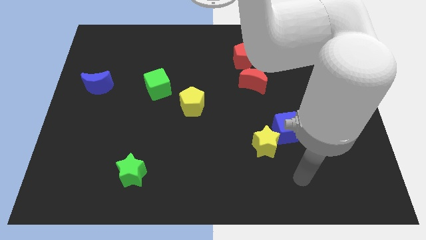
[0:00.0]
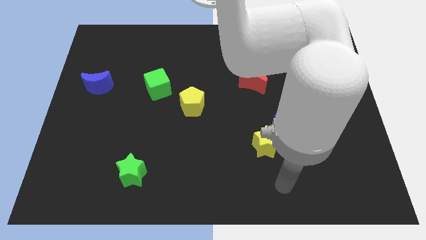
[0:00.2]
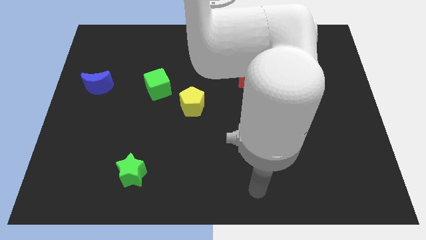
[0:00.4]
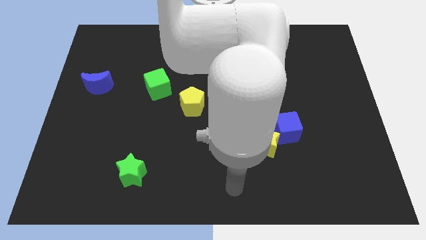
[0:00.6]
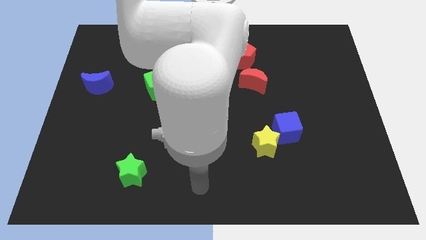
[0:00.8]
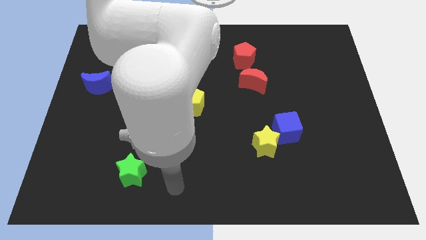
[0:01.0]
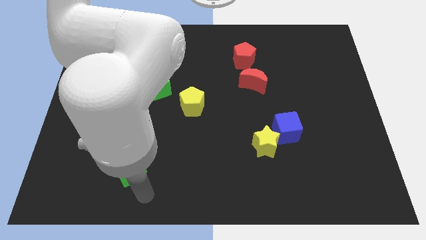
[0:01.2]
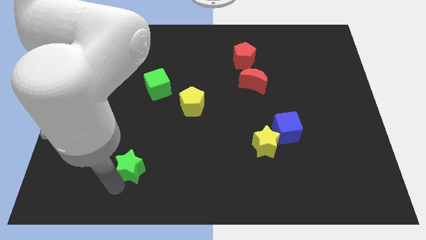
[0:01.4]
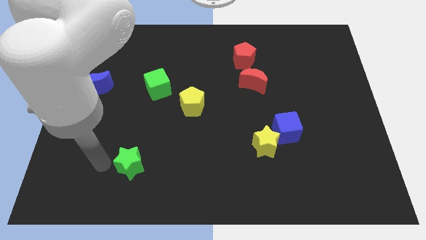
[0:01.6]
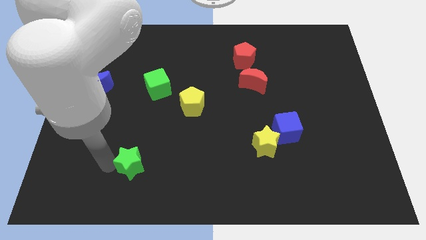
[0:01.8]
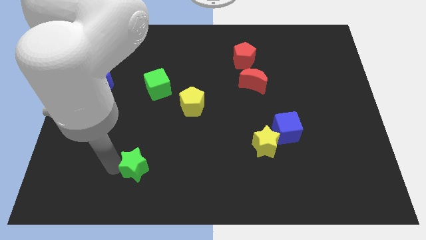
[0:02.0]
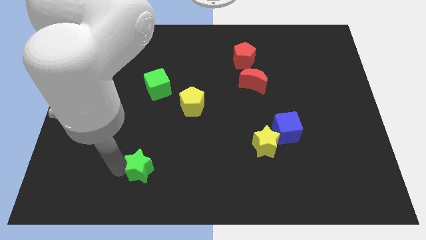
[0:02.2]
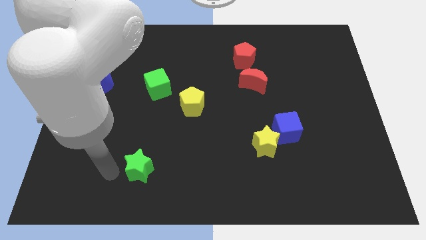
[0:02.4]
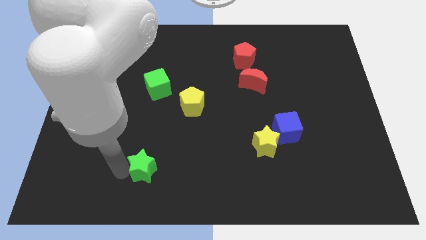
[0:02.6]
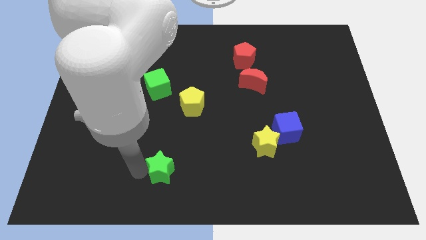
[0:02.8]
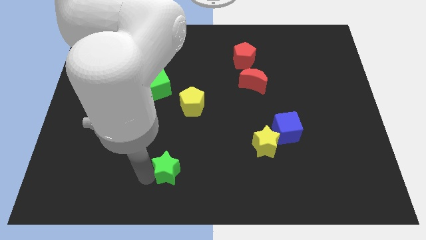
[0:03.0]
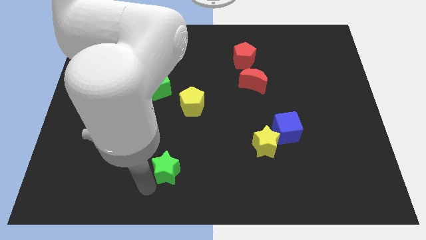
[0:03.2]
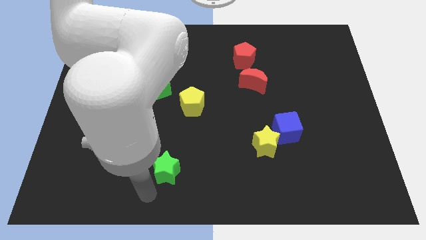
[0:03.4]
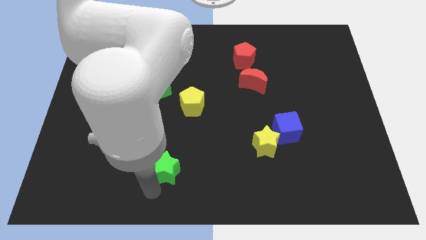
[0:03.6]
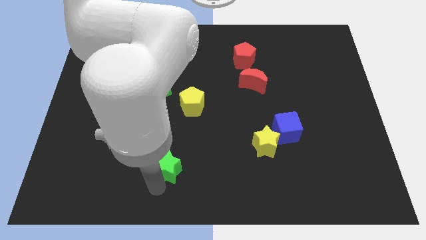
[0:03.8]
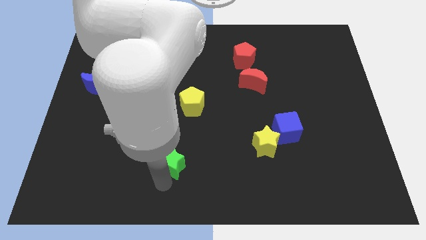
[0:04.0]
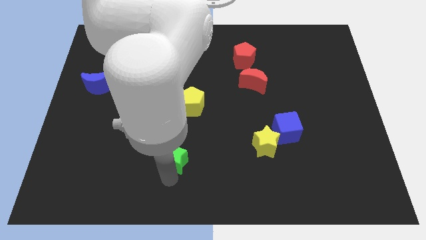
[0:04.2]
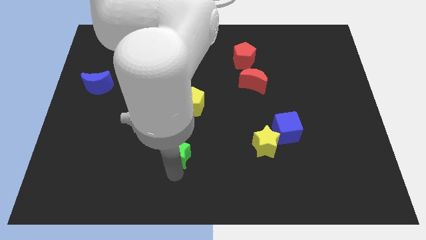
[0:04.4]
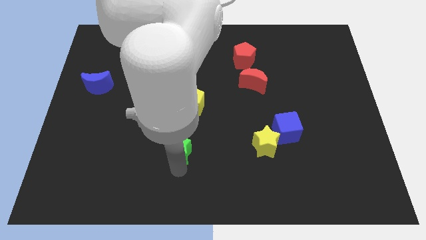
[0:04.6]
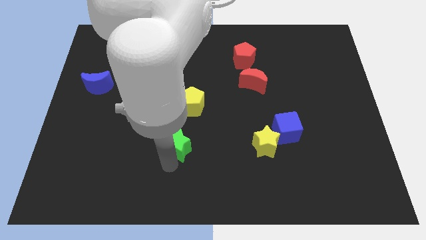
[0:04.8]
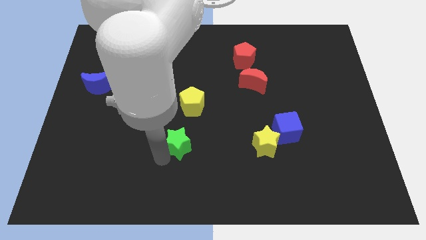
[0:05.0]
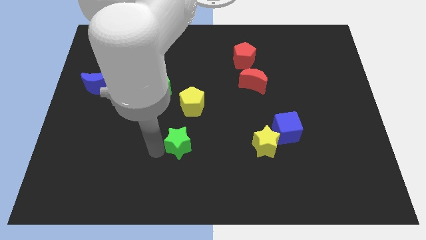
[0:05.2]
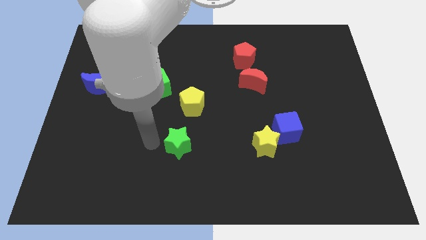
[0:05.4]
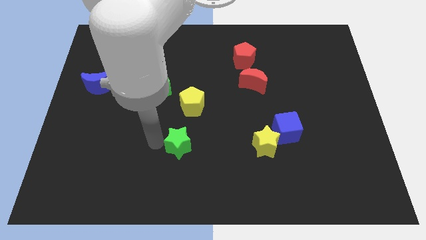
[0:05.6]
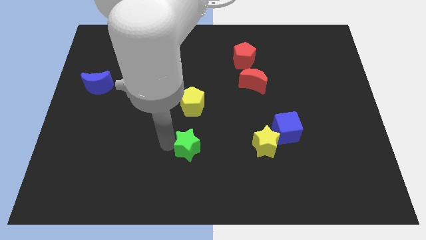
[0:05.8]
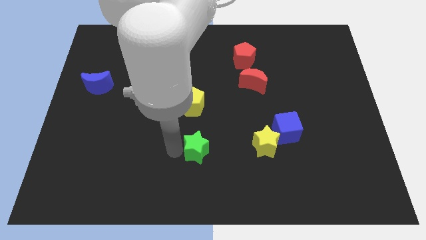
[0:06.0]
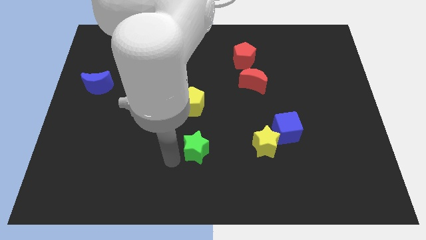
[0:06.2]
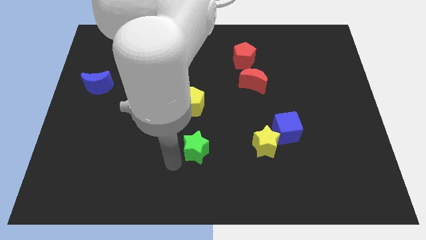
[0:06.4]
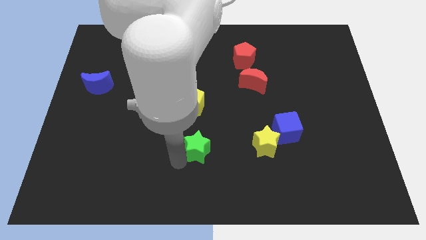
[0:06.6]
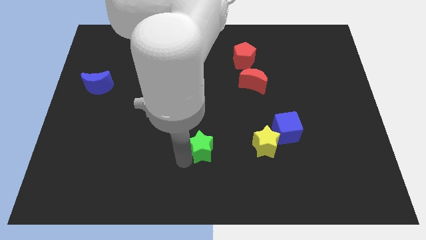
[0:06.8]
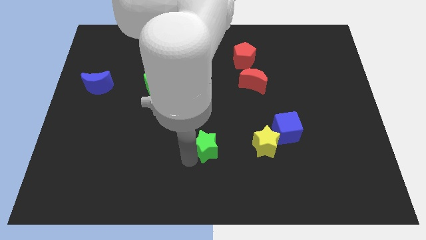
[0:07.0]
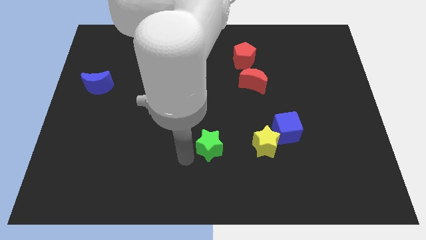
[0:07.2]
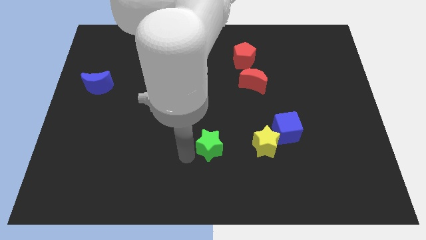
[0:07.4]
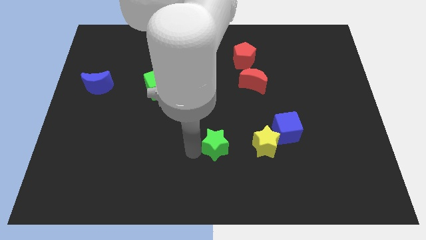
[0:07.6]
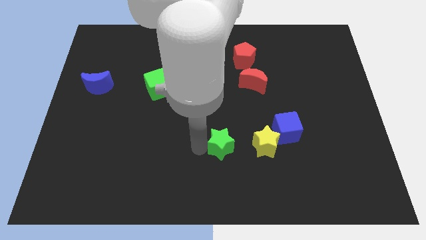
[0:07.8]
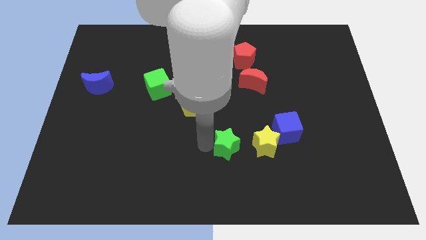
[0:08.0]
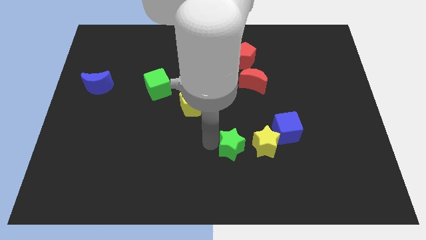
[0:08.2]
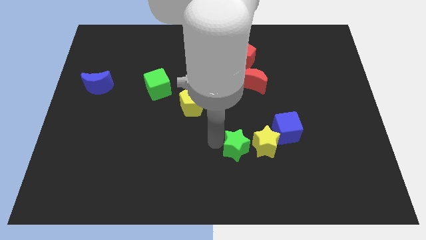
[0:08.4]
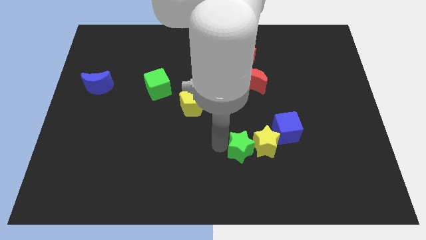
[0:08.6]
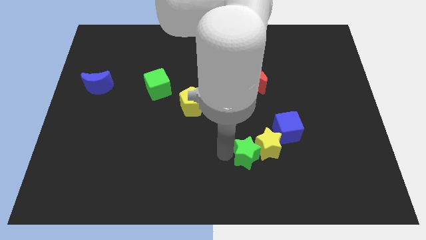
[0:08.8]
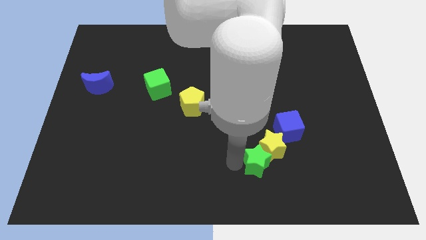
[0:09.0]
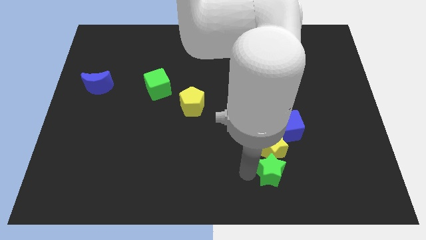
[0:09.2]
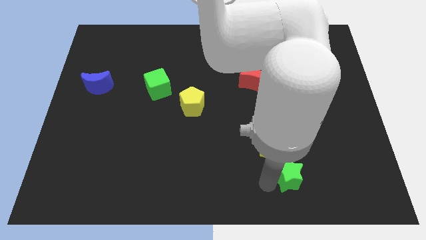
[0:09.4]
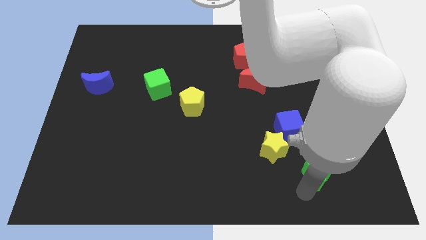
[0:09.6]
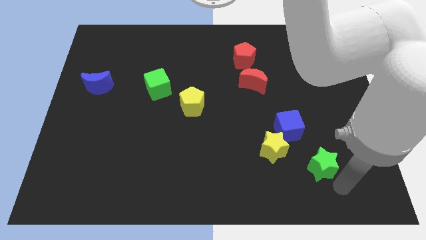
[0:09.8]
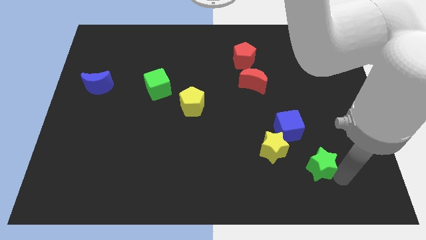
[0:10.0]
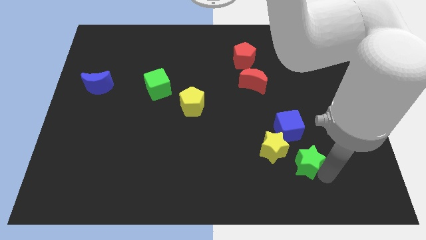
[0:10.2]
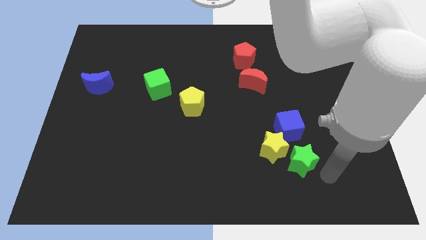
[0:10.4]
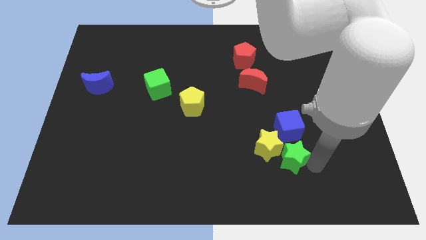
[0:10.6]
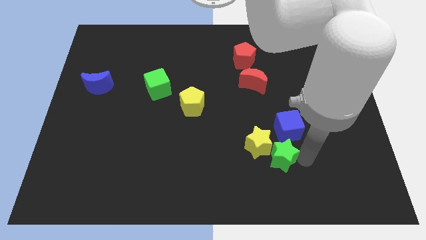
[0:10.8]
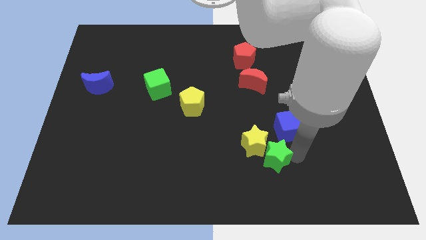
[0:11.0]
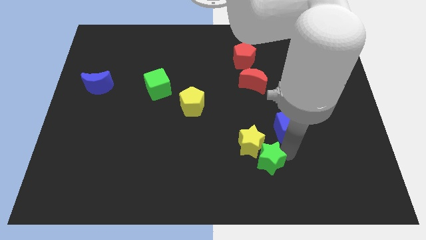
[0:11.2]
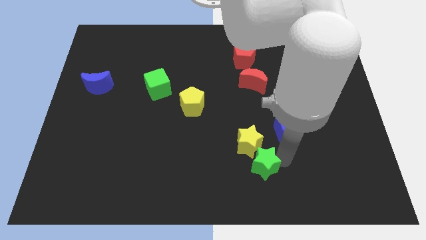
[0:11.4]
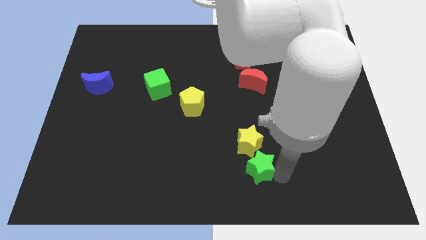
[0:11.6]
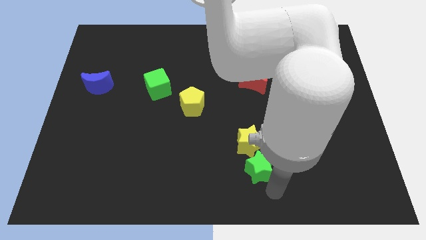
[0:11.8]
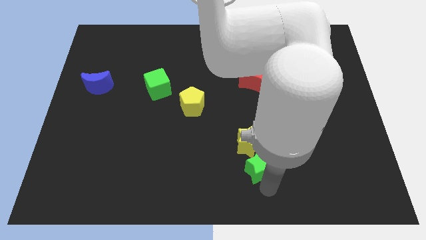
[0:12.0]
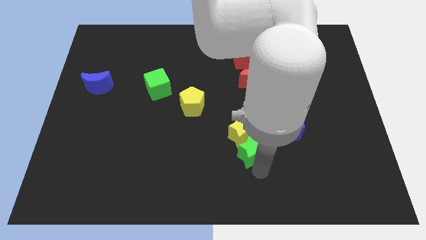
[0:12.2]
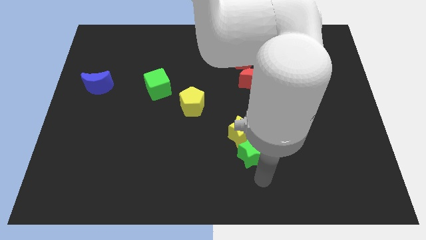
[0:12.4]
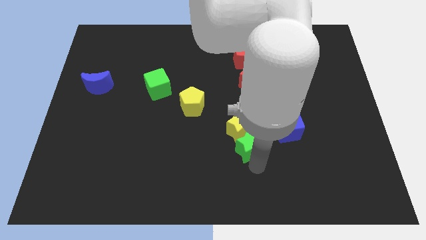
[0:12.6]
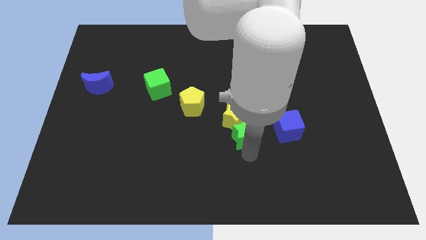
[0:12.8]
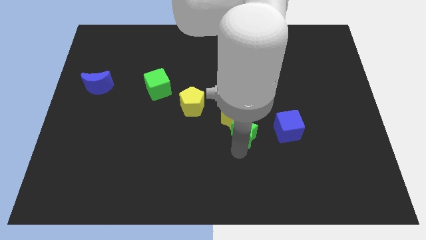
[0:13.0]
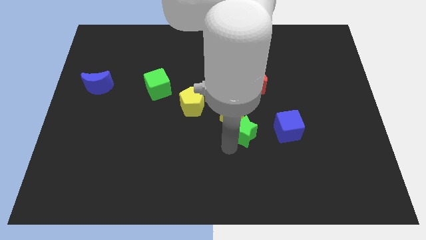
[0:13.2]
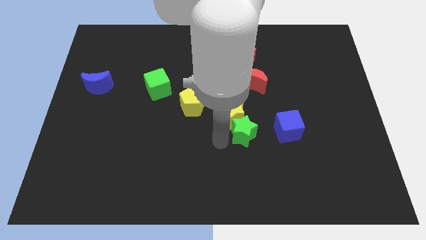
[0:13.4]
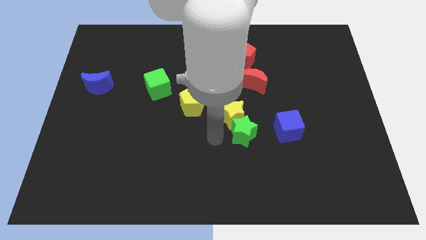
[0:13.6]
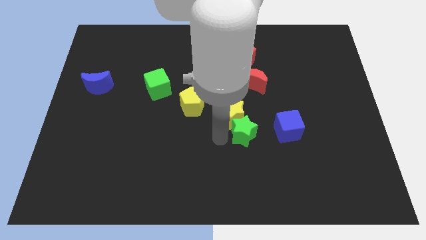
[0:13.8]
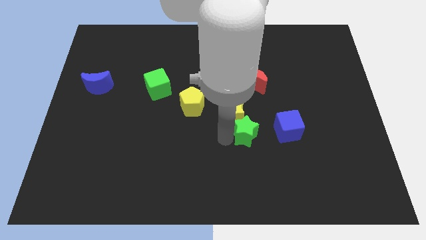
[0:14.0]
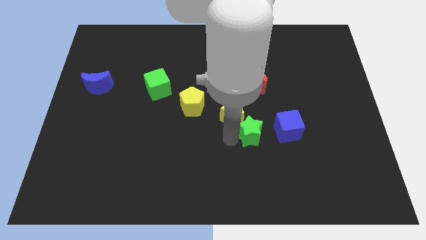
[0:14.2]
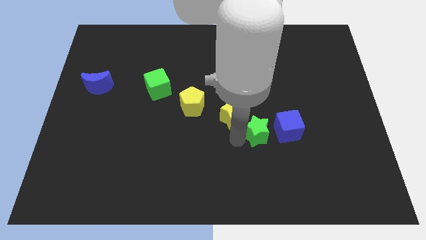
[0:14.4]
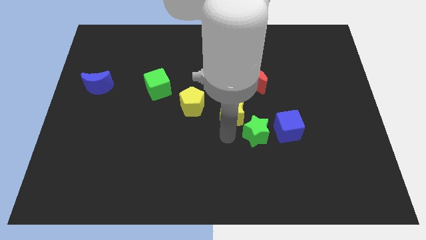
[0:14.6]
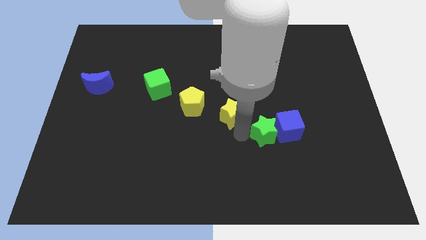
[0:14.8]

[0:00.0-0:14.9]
move the green star to the blue cube

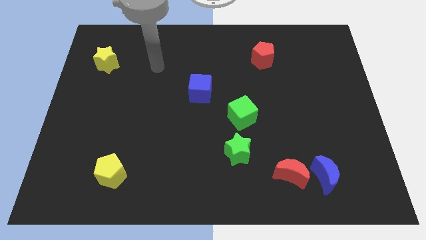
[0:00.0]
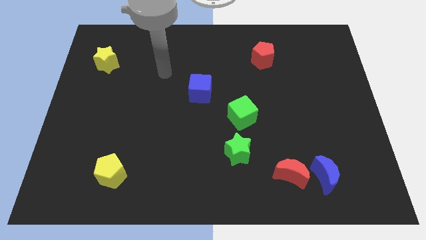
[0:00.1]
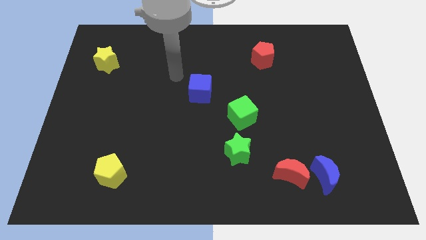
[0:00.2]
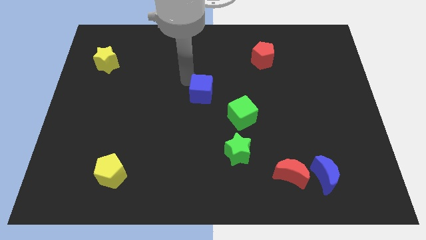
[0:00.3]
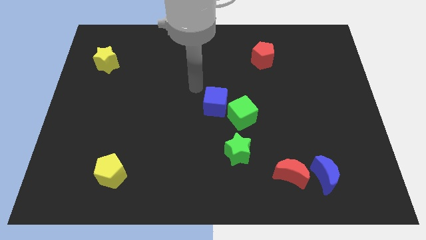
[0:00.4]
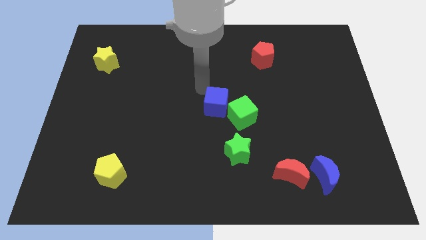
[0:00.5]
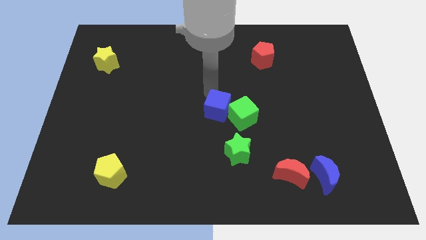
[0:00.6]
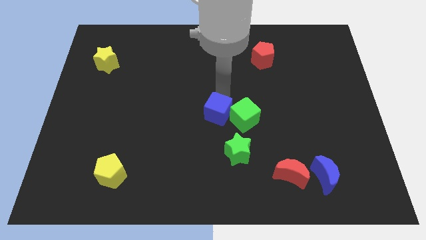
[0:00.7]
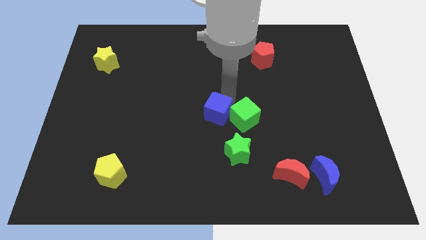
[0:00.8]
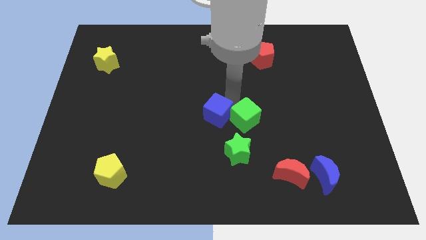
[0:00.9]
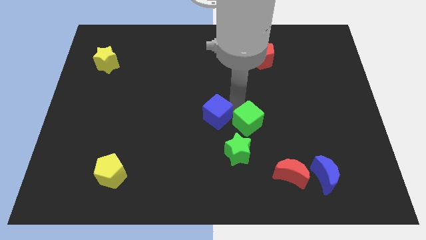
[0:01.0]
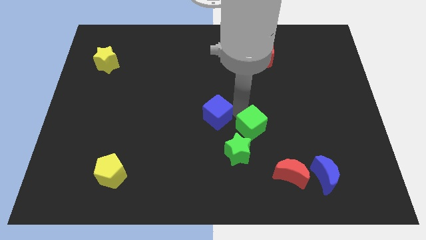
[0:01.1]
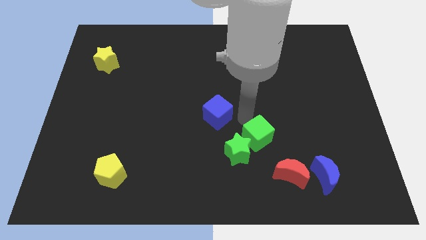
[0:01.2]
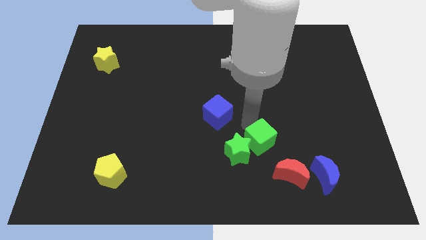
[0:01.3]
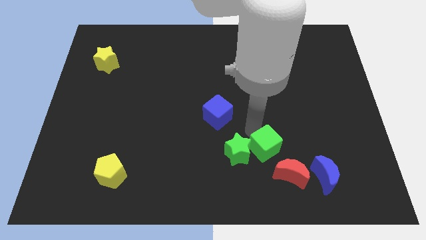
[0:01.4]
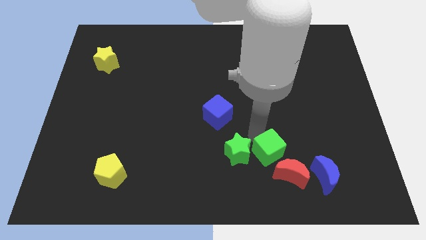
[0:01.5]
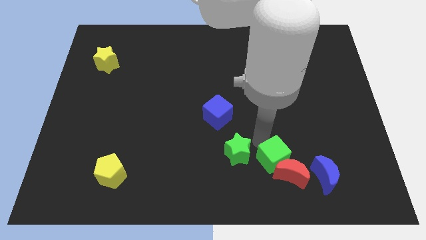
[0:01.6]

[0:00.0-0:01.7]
push the green cube next to the red moon
